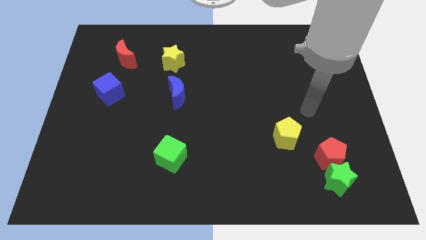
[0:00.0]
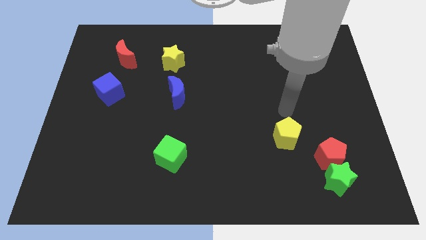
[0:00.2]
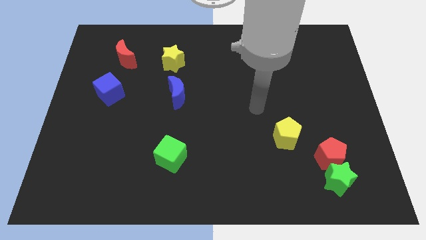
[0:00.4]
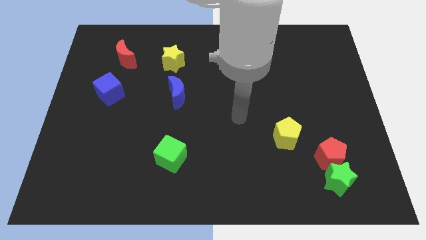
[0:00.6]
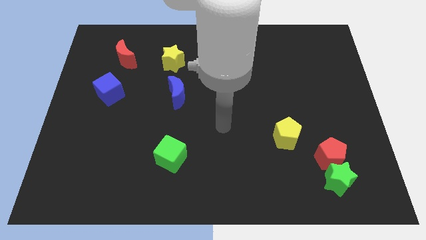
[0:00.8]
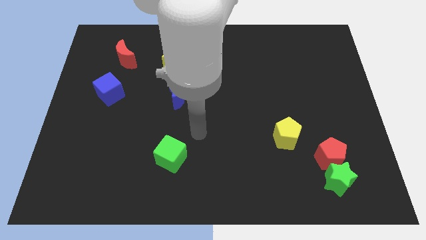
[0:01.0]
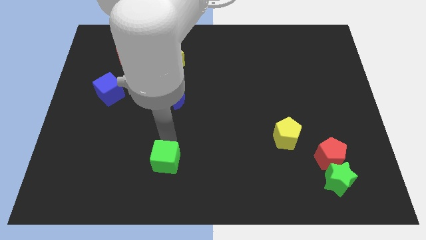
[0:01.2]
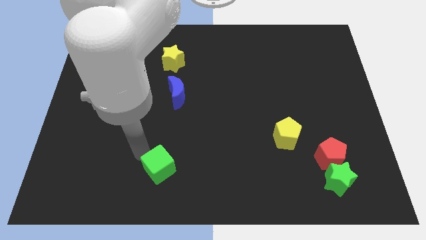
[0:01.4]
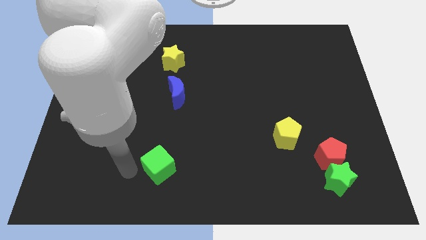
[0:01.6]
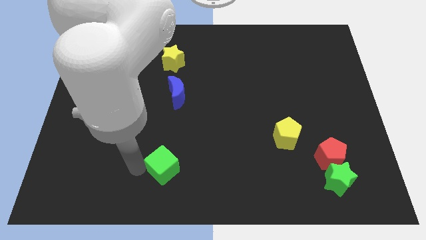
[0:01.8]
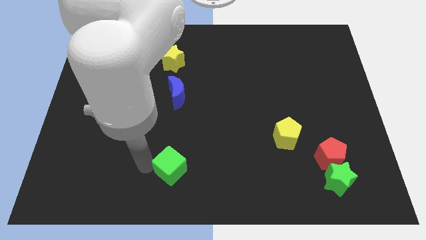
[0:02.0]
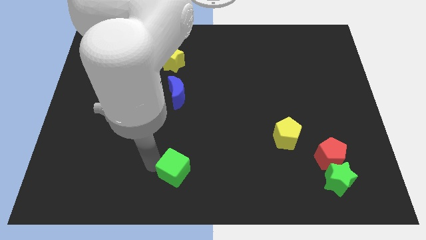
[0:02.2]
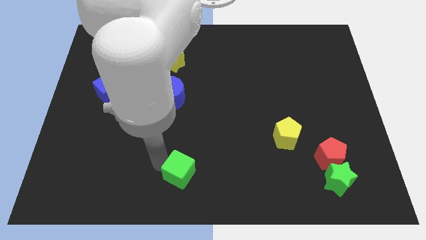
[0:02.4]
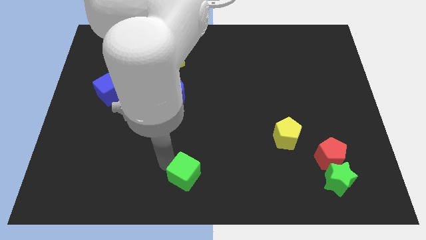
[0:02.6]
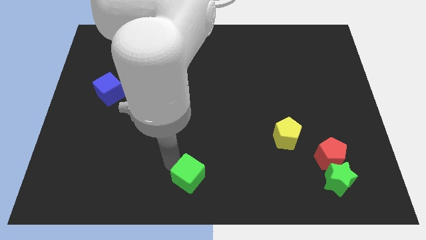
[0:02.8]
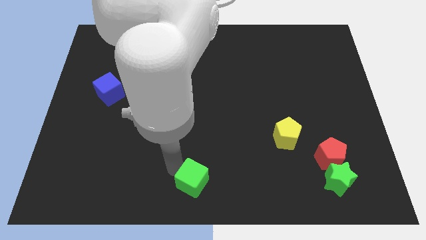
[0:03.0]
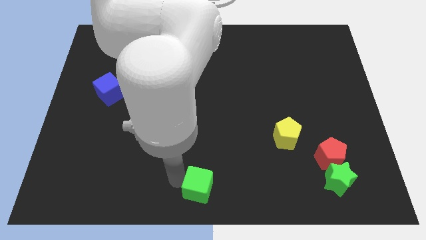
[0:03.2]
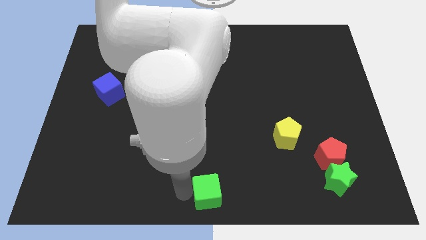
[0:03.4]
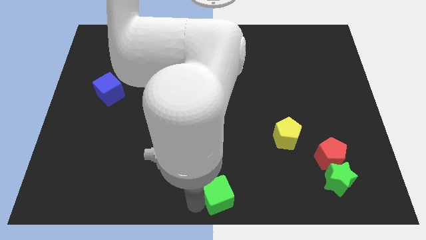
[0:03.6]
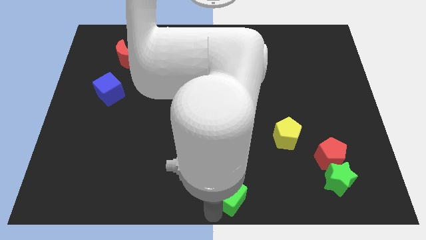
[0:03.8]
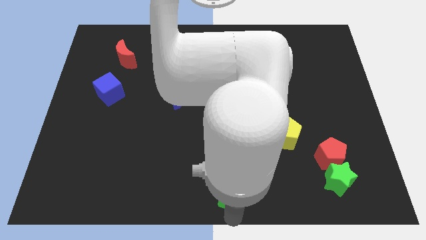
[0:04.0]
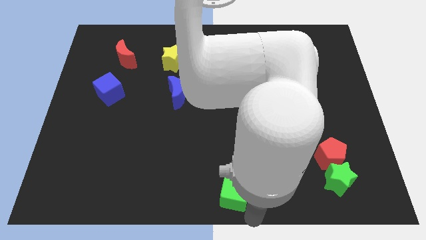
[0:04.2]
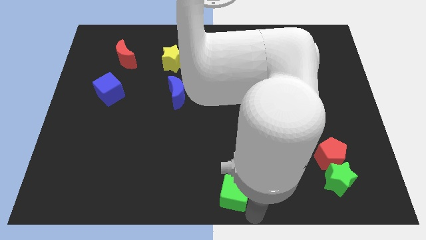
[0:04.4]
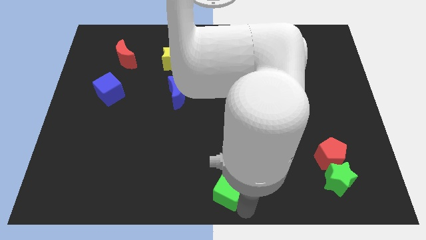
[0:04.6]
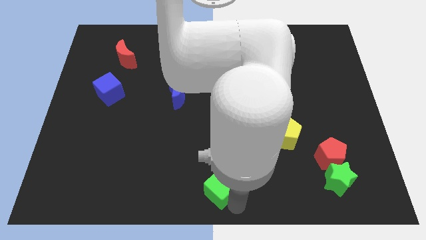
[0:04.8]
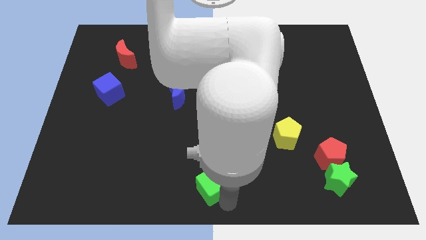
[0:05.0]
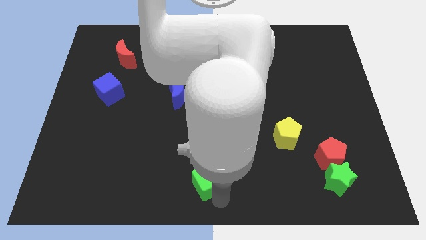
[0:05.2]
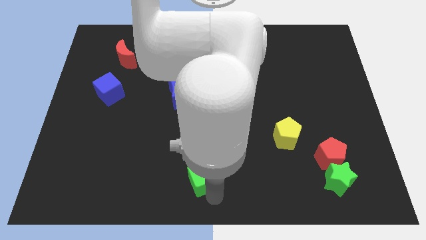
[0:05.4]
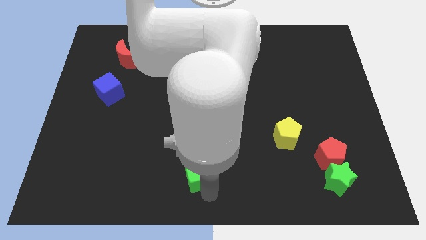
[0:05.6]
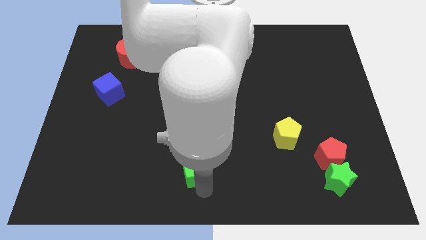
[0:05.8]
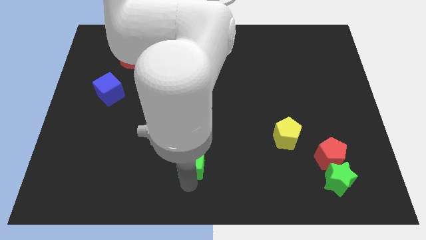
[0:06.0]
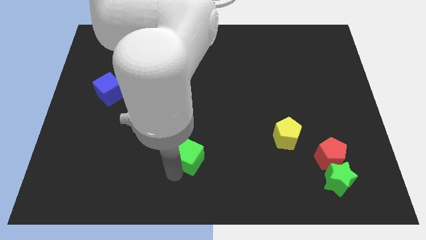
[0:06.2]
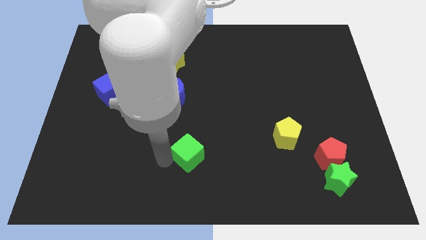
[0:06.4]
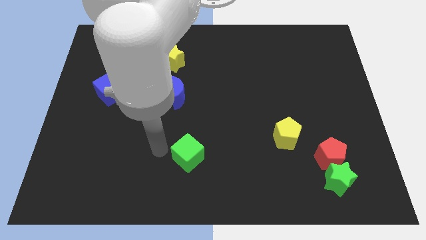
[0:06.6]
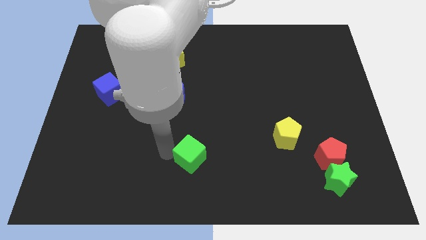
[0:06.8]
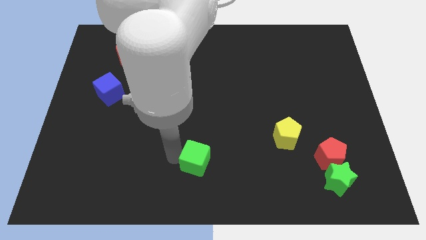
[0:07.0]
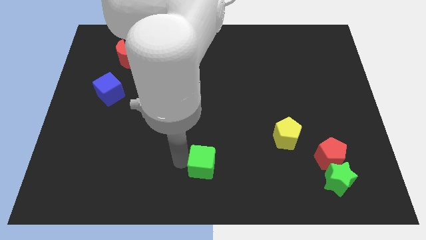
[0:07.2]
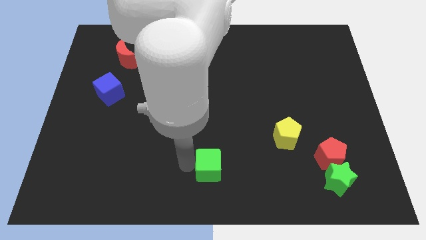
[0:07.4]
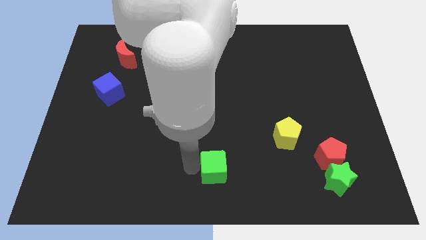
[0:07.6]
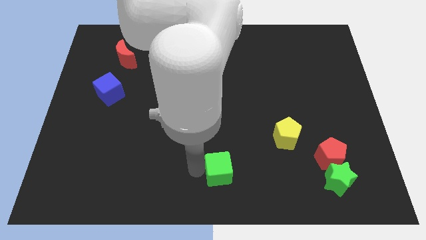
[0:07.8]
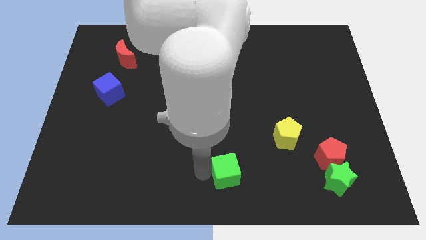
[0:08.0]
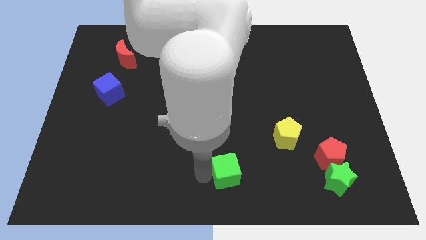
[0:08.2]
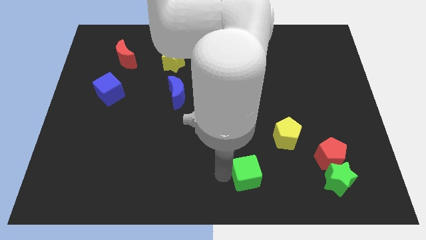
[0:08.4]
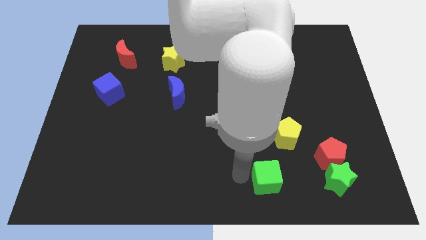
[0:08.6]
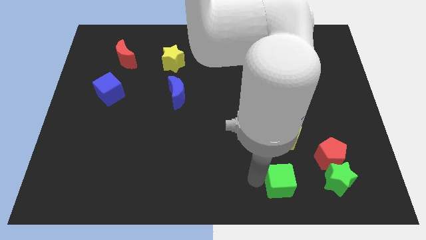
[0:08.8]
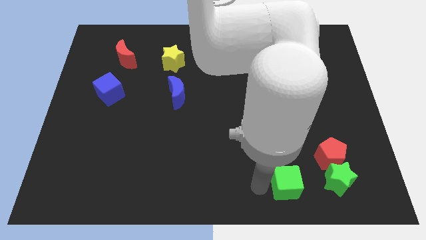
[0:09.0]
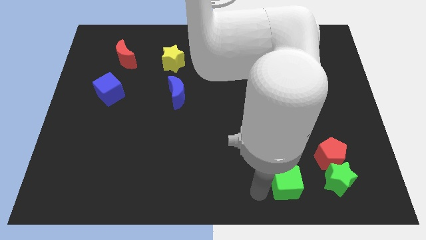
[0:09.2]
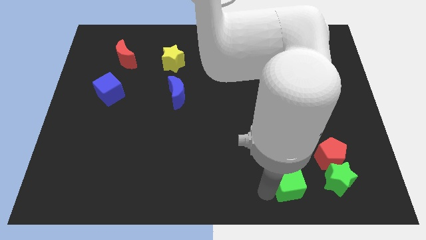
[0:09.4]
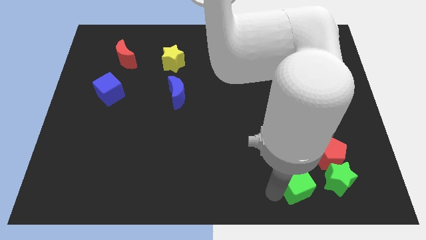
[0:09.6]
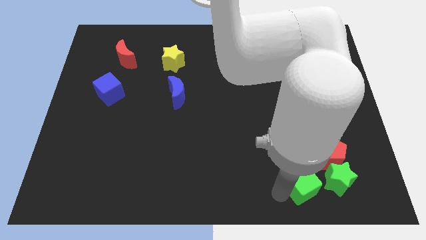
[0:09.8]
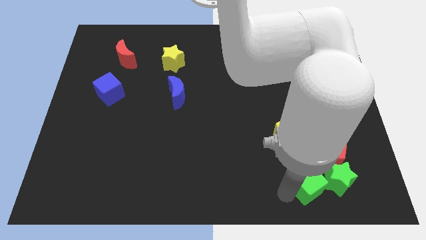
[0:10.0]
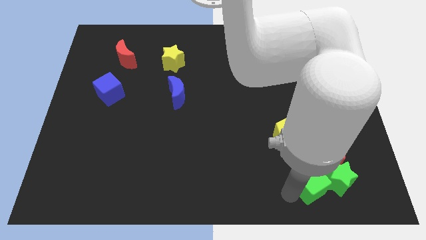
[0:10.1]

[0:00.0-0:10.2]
move the green cube next to the green star

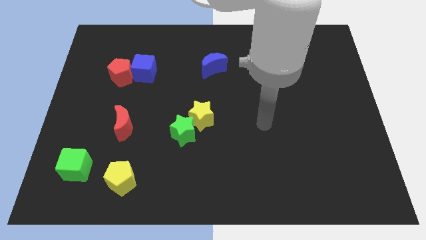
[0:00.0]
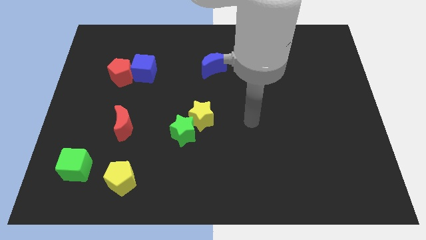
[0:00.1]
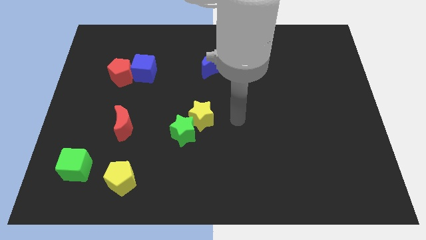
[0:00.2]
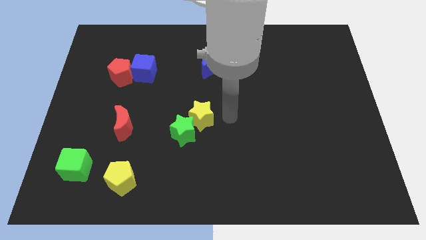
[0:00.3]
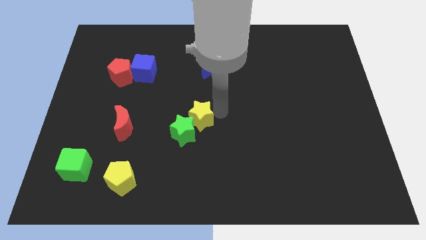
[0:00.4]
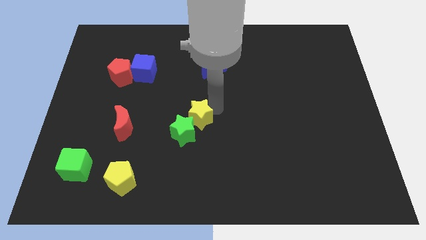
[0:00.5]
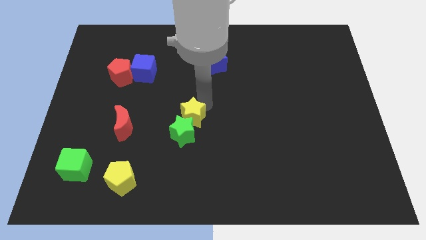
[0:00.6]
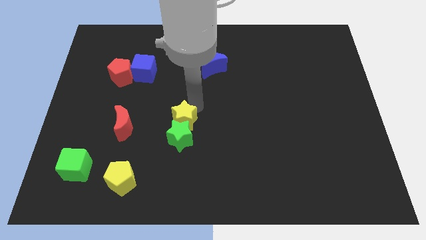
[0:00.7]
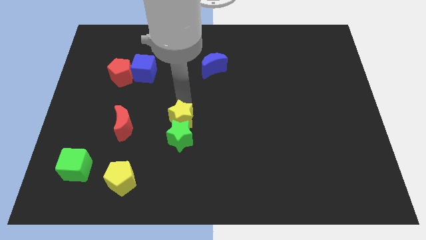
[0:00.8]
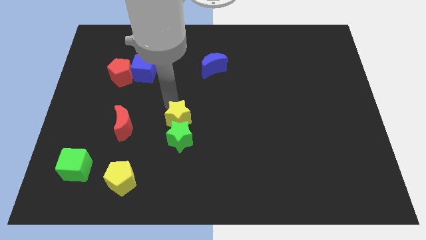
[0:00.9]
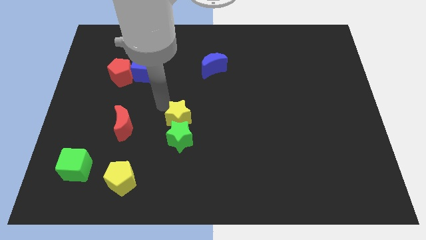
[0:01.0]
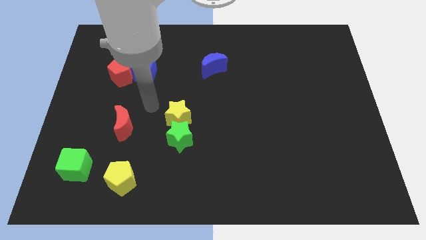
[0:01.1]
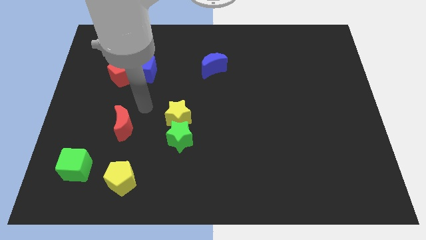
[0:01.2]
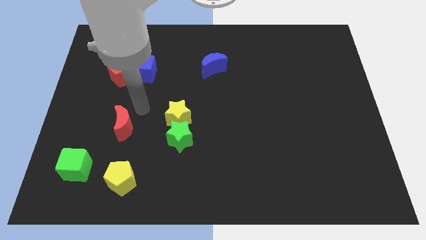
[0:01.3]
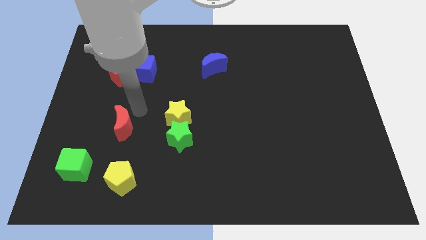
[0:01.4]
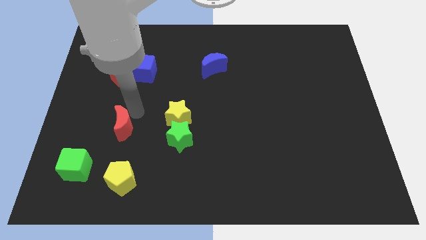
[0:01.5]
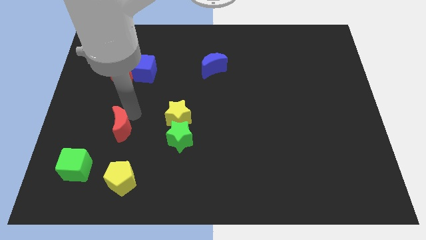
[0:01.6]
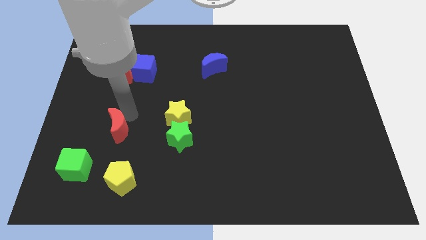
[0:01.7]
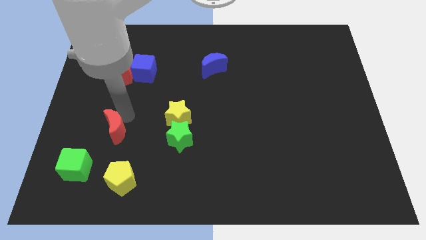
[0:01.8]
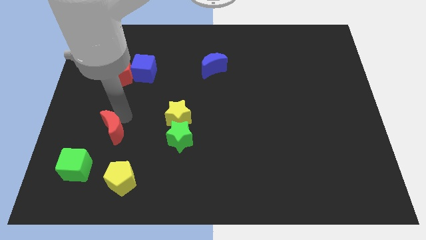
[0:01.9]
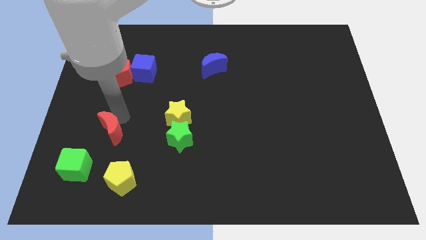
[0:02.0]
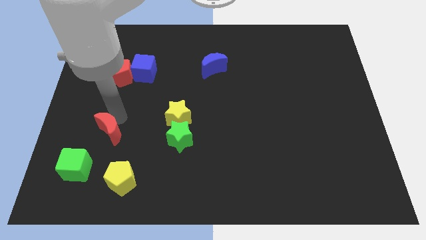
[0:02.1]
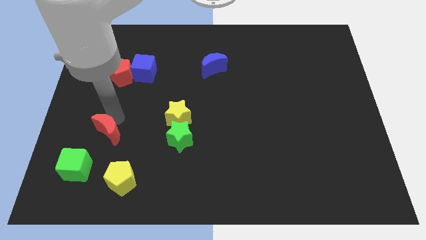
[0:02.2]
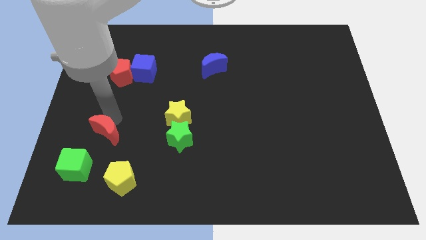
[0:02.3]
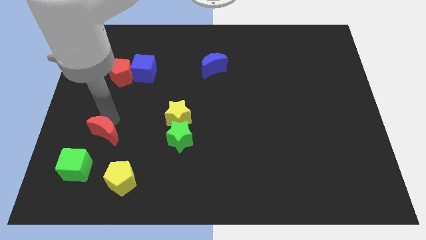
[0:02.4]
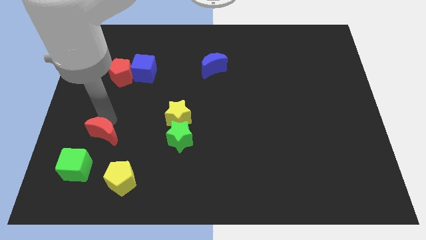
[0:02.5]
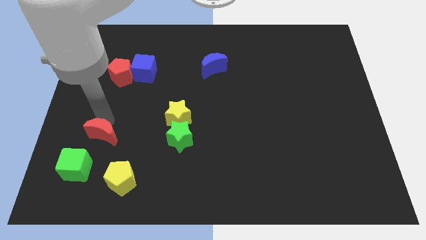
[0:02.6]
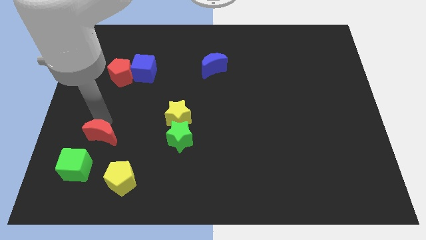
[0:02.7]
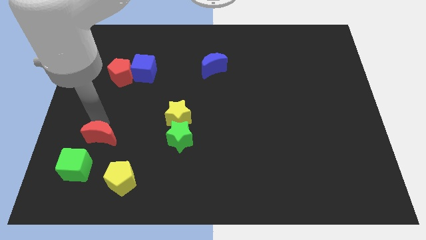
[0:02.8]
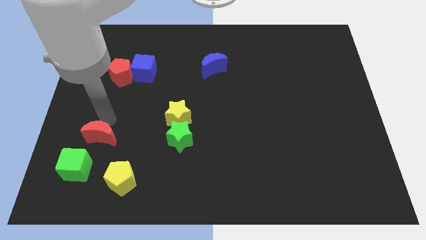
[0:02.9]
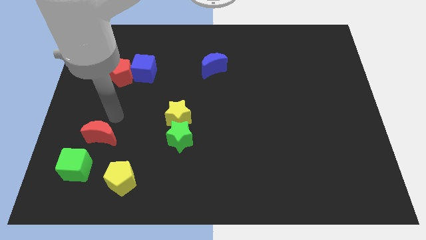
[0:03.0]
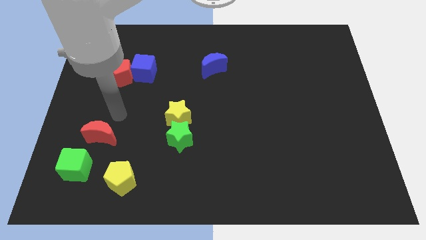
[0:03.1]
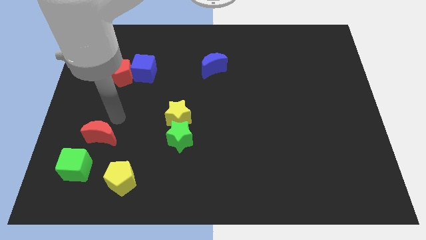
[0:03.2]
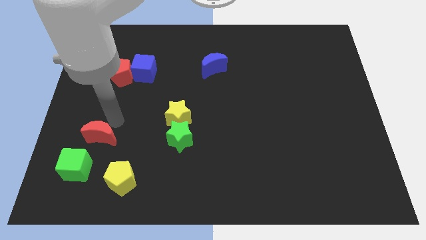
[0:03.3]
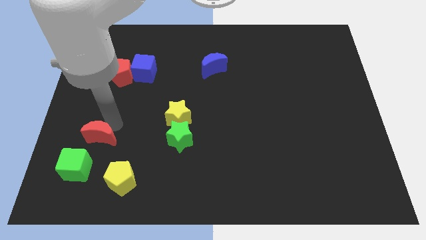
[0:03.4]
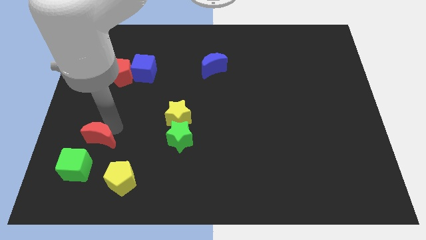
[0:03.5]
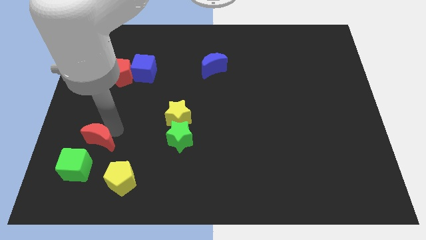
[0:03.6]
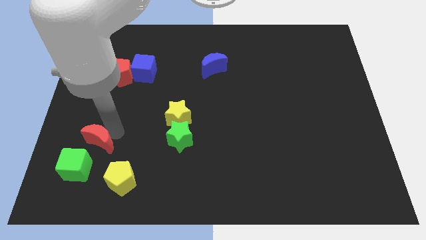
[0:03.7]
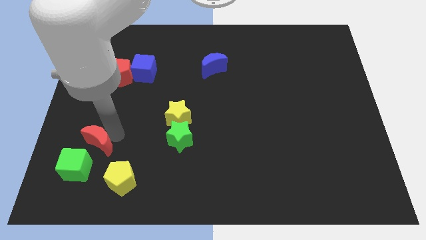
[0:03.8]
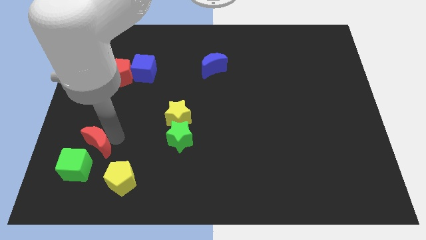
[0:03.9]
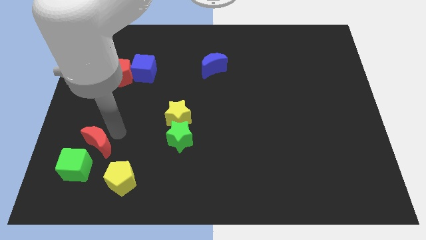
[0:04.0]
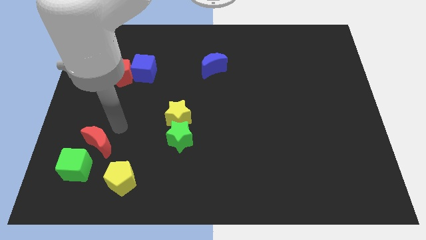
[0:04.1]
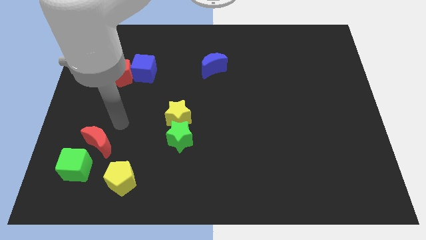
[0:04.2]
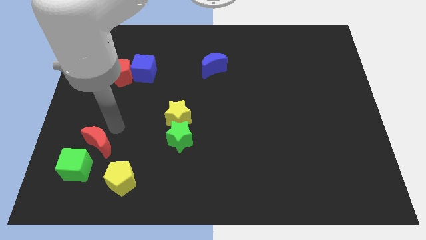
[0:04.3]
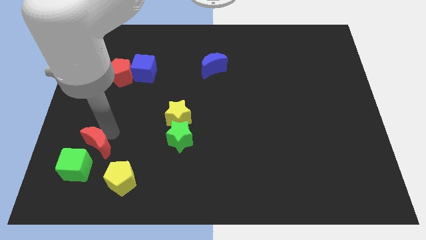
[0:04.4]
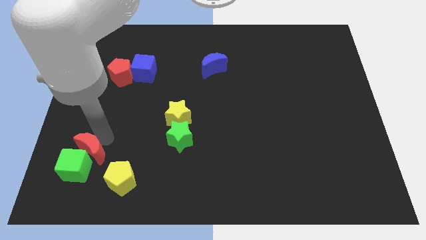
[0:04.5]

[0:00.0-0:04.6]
put the red moon towards the green cube
